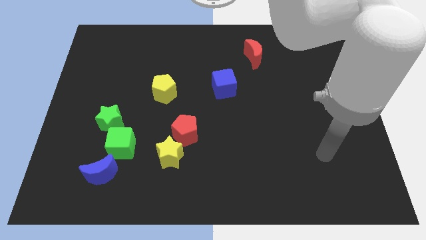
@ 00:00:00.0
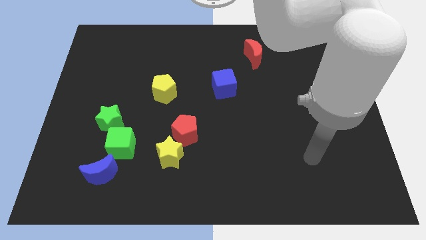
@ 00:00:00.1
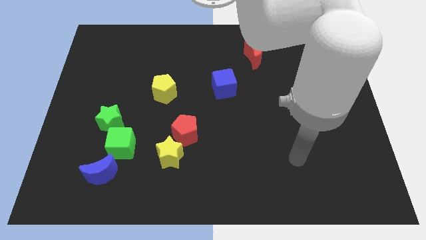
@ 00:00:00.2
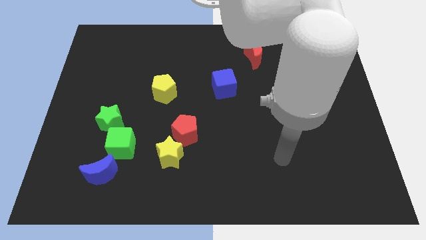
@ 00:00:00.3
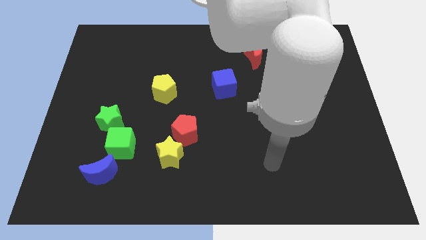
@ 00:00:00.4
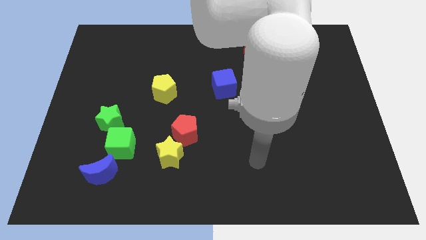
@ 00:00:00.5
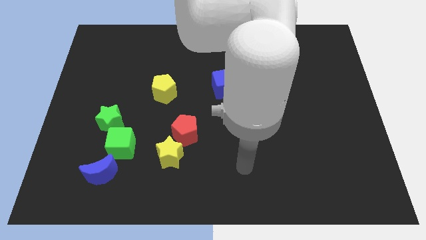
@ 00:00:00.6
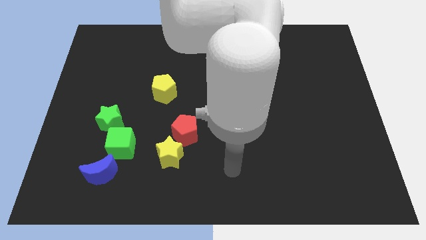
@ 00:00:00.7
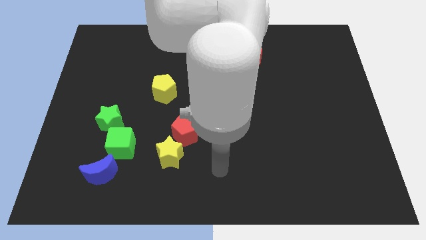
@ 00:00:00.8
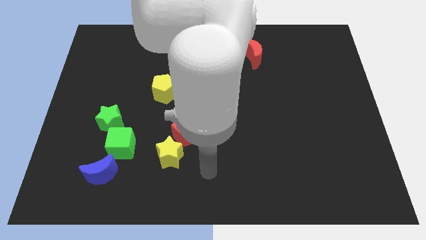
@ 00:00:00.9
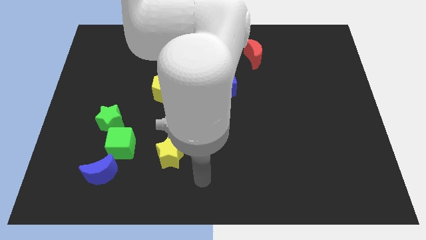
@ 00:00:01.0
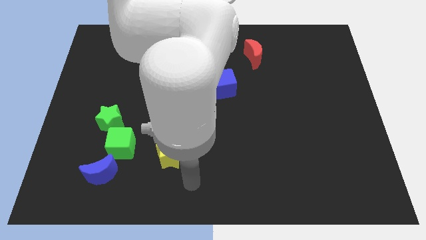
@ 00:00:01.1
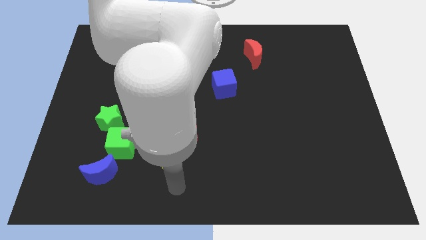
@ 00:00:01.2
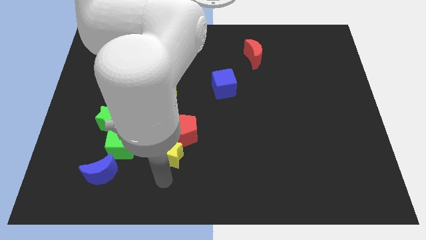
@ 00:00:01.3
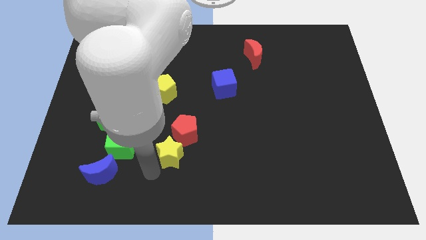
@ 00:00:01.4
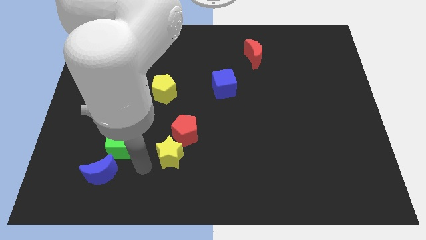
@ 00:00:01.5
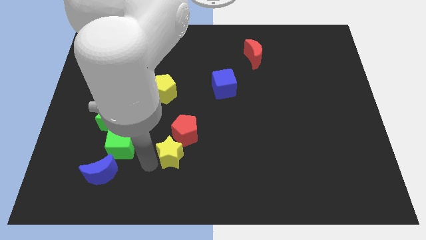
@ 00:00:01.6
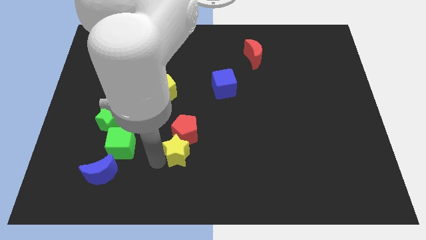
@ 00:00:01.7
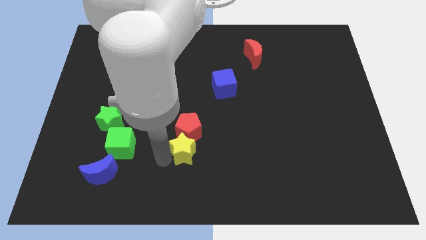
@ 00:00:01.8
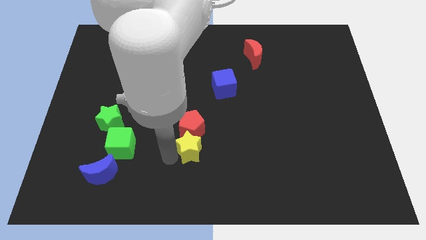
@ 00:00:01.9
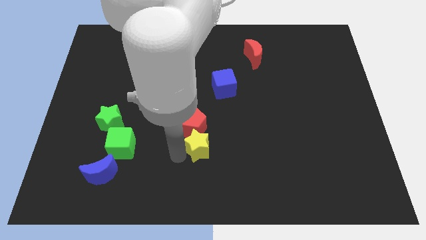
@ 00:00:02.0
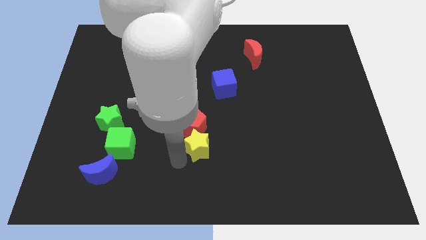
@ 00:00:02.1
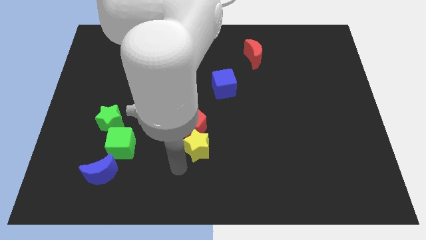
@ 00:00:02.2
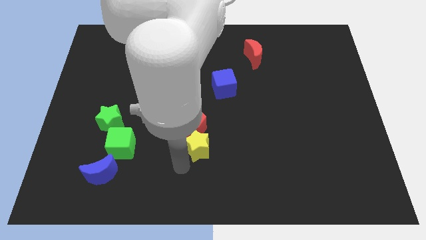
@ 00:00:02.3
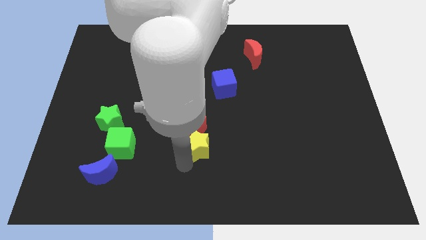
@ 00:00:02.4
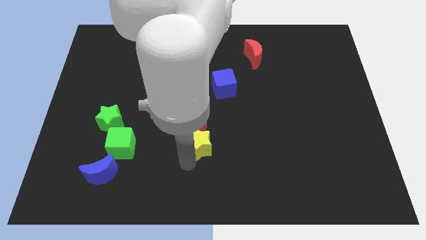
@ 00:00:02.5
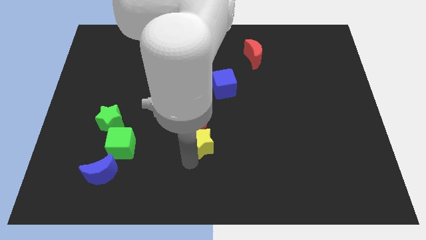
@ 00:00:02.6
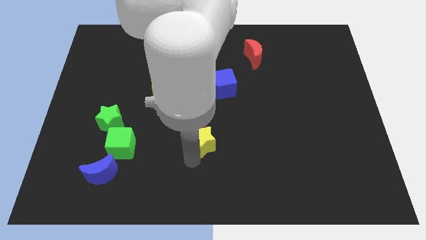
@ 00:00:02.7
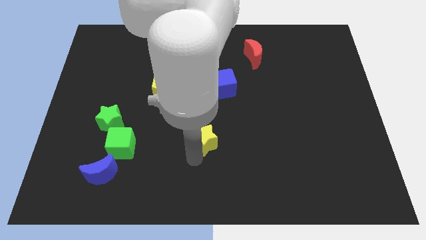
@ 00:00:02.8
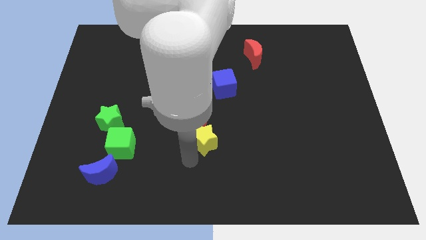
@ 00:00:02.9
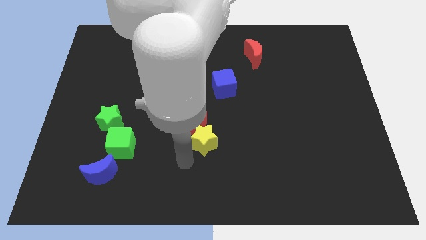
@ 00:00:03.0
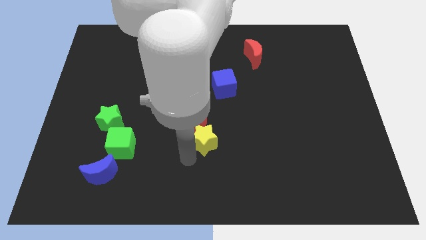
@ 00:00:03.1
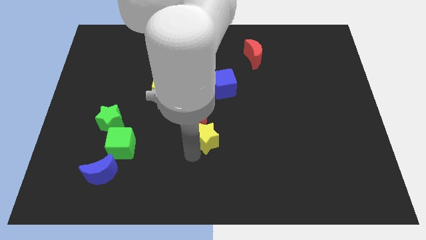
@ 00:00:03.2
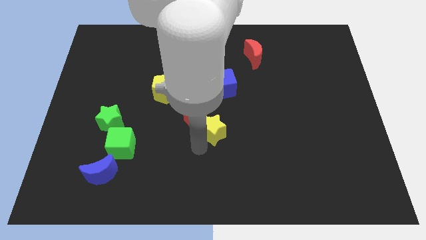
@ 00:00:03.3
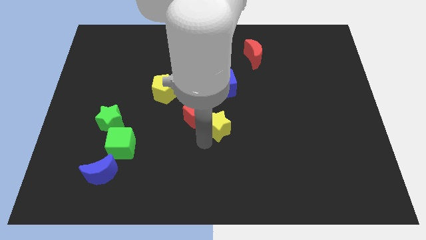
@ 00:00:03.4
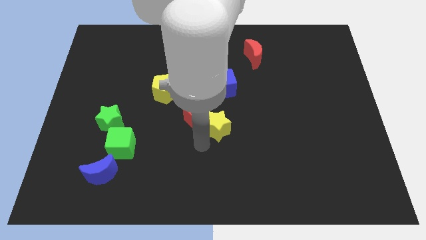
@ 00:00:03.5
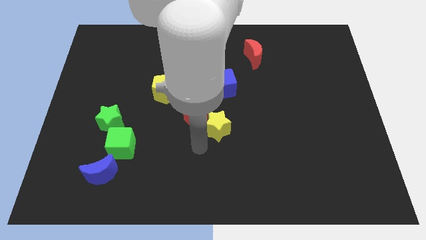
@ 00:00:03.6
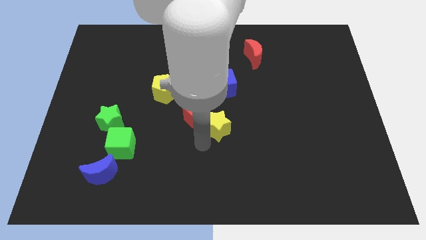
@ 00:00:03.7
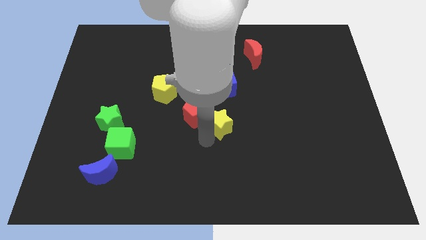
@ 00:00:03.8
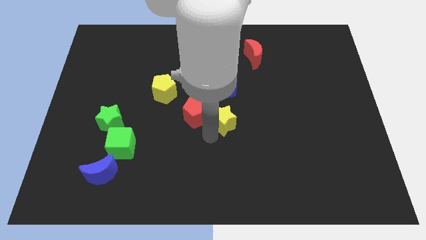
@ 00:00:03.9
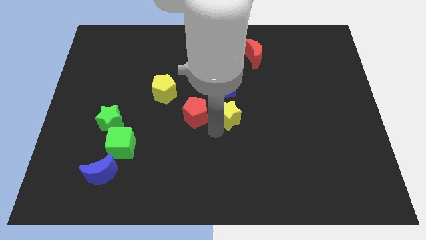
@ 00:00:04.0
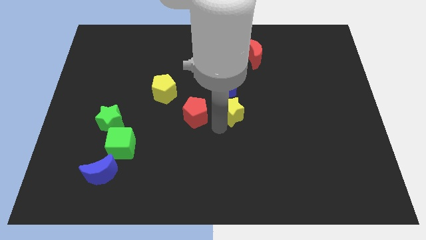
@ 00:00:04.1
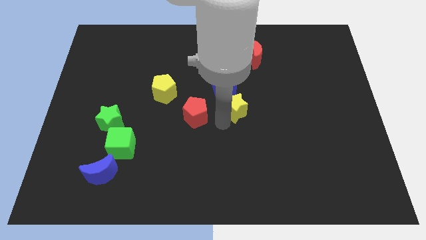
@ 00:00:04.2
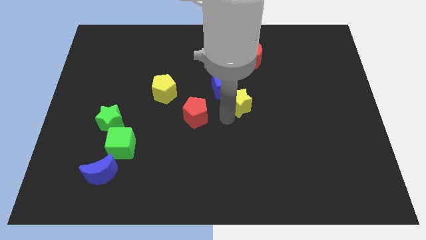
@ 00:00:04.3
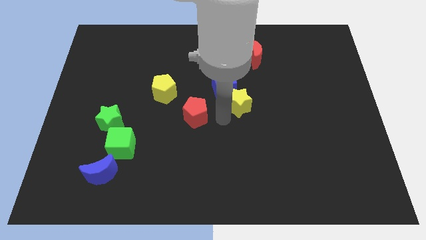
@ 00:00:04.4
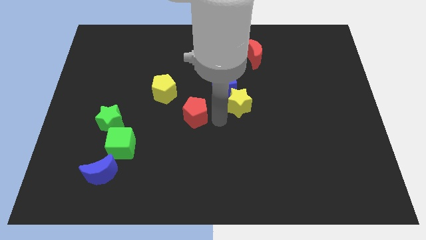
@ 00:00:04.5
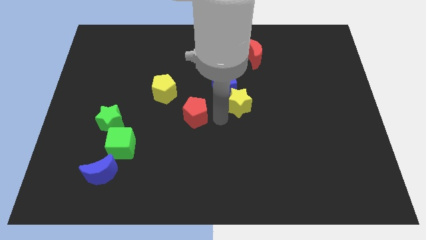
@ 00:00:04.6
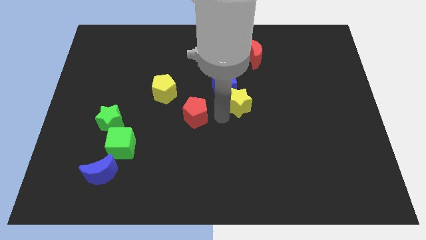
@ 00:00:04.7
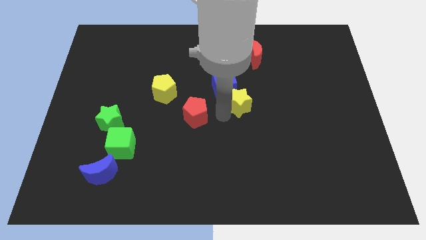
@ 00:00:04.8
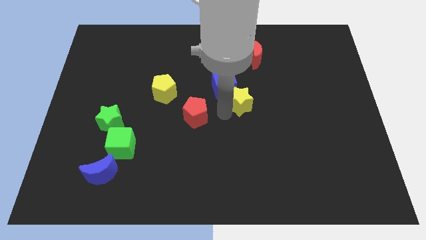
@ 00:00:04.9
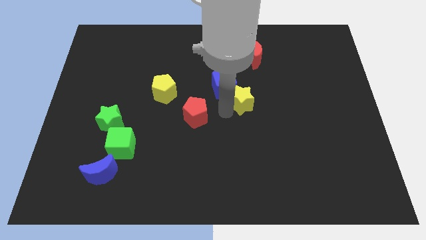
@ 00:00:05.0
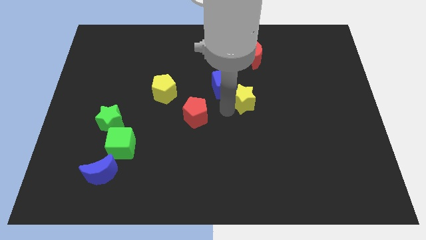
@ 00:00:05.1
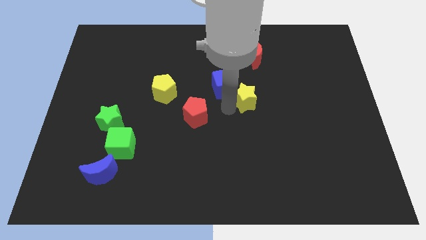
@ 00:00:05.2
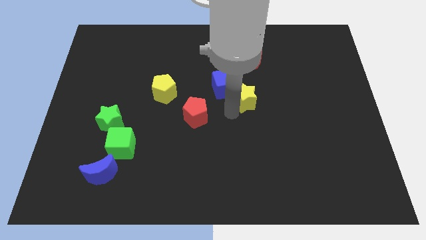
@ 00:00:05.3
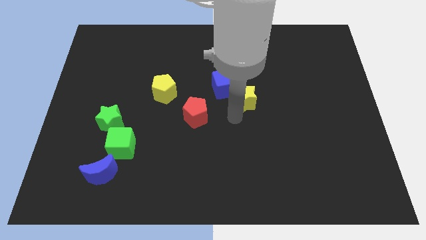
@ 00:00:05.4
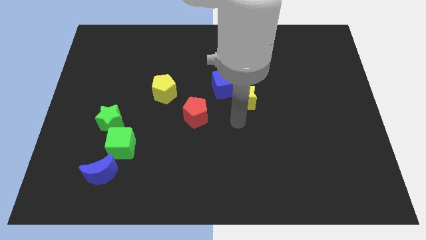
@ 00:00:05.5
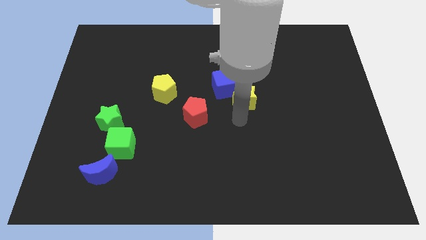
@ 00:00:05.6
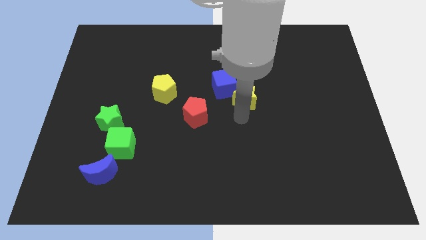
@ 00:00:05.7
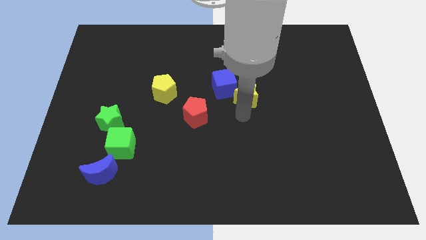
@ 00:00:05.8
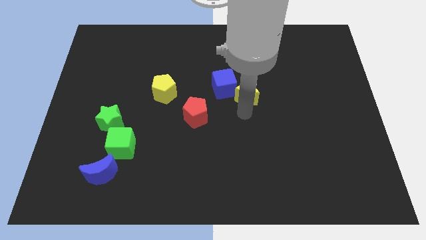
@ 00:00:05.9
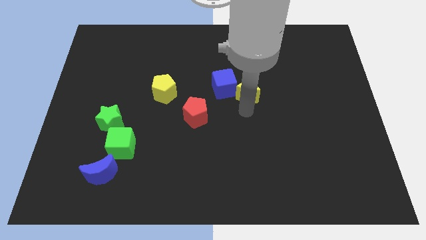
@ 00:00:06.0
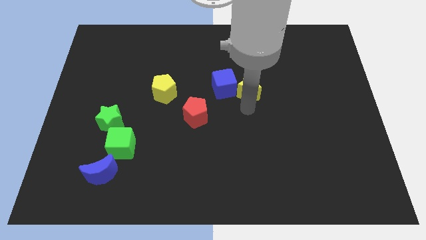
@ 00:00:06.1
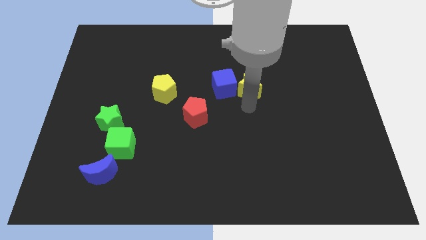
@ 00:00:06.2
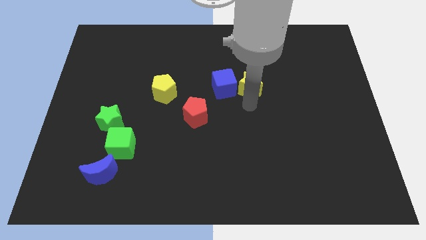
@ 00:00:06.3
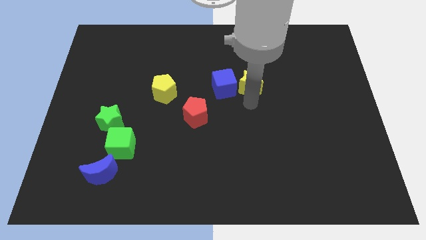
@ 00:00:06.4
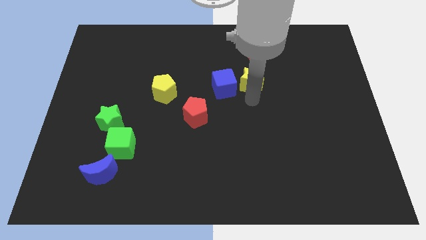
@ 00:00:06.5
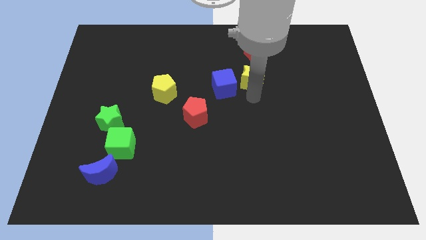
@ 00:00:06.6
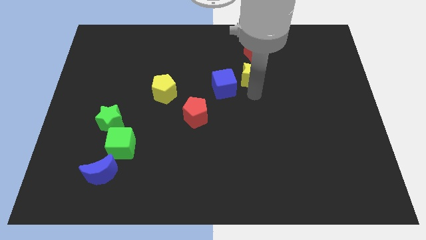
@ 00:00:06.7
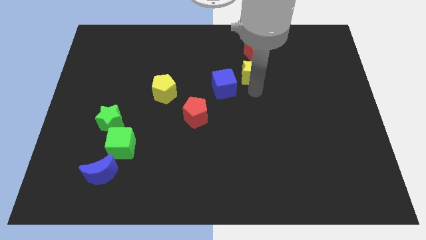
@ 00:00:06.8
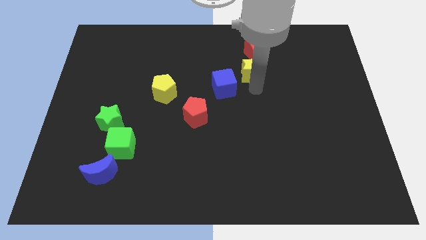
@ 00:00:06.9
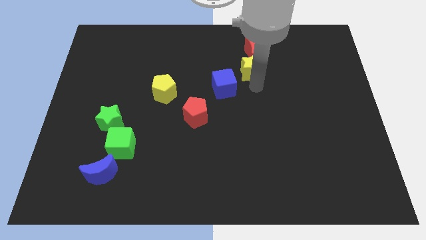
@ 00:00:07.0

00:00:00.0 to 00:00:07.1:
slide the yellow star to the red moon

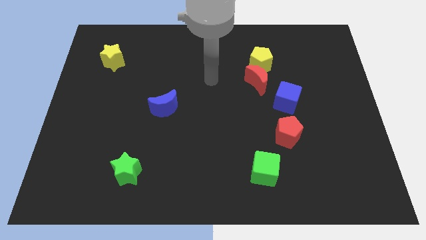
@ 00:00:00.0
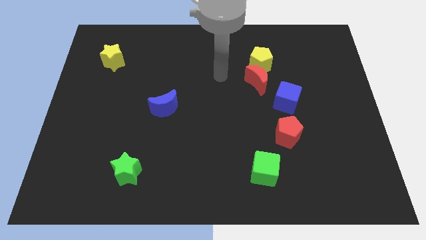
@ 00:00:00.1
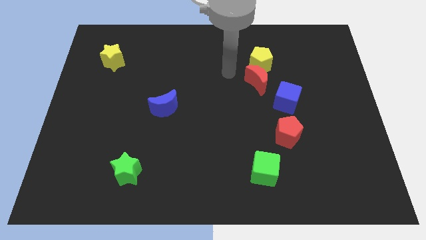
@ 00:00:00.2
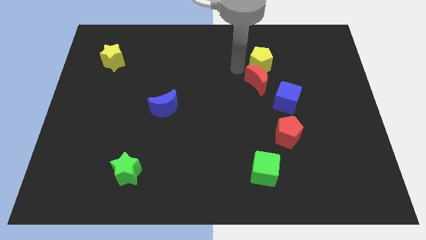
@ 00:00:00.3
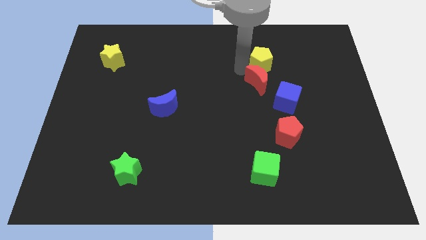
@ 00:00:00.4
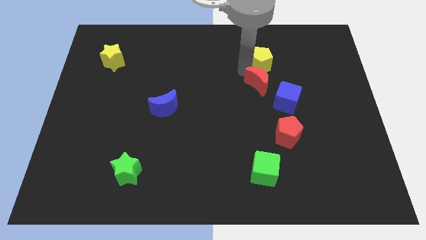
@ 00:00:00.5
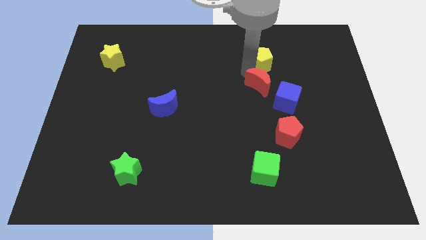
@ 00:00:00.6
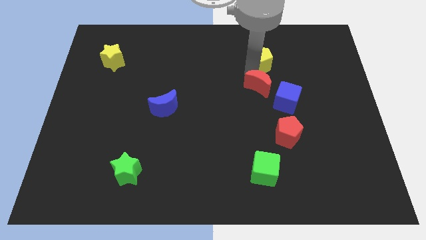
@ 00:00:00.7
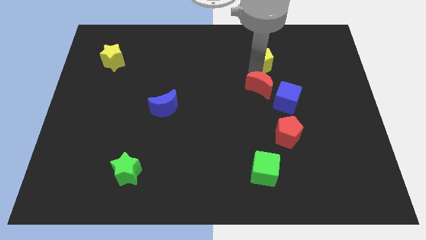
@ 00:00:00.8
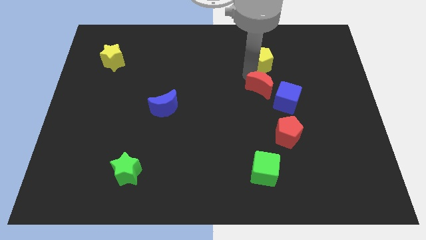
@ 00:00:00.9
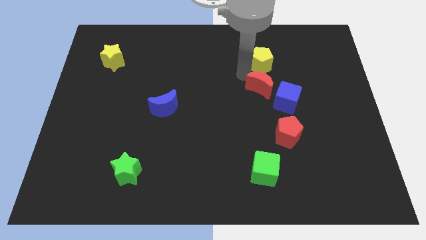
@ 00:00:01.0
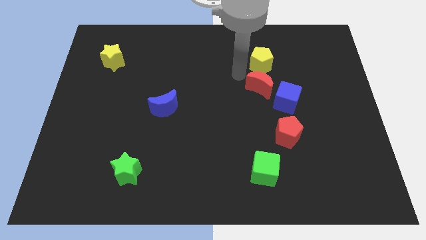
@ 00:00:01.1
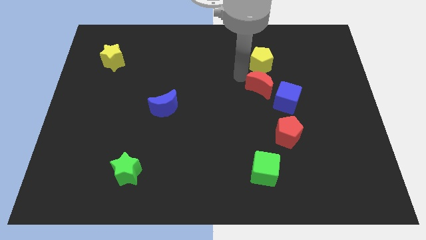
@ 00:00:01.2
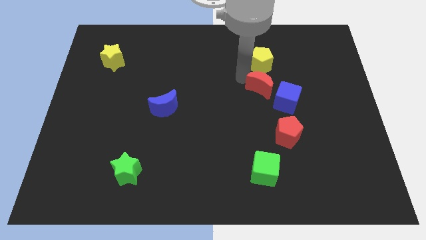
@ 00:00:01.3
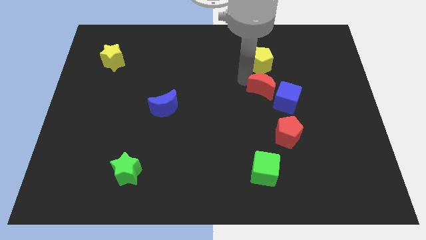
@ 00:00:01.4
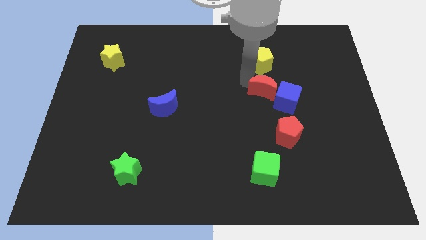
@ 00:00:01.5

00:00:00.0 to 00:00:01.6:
put the red moon to the blue cube
